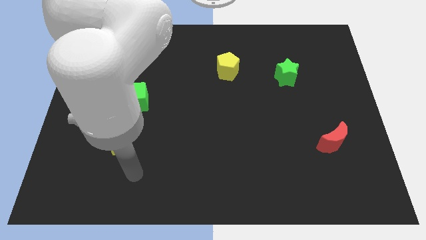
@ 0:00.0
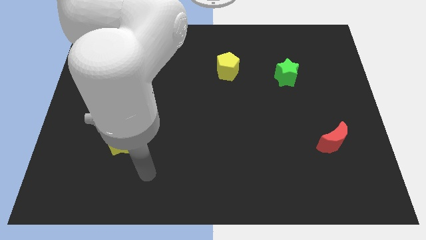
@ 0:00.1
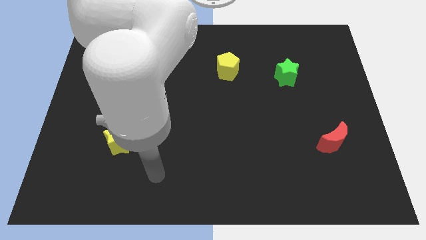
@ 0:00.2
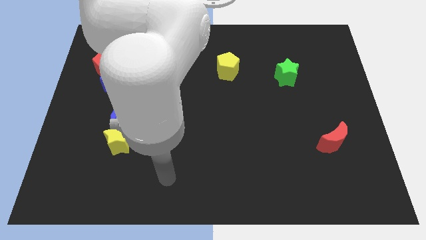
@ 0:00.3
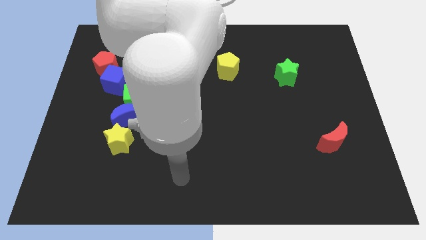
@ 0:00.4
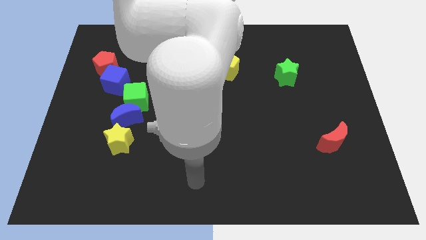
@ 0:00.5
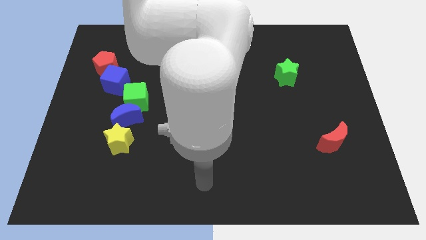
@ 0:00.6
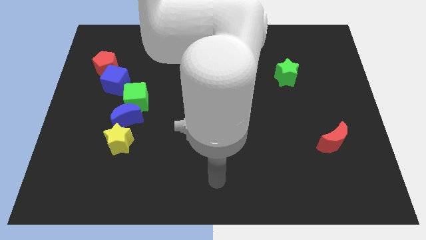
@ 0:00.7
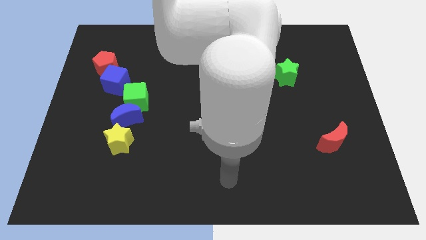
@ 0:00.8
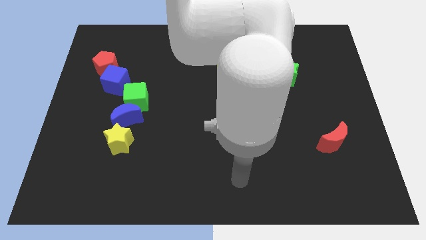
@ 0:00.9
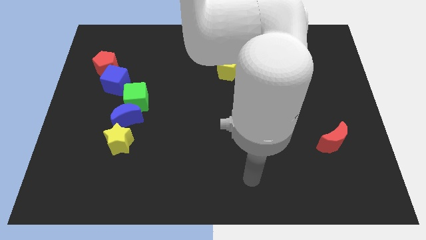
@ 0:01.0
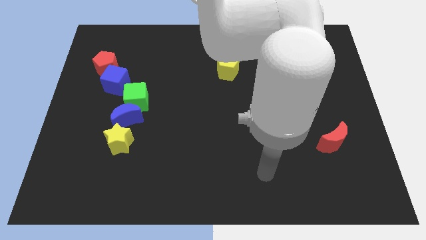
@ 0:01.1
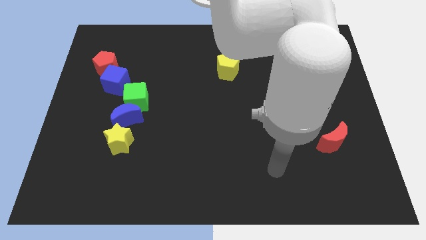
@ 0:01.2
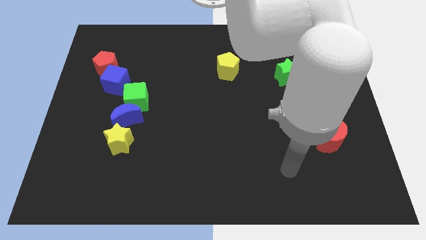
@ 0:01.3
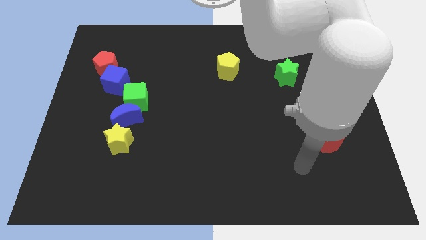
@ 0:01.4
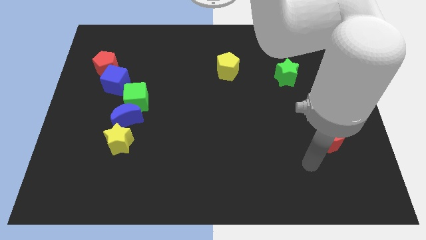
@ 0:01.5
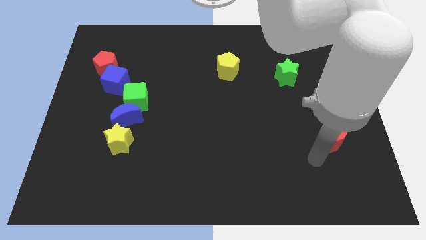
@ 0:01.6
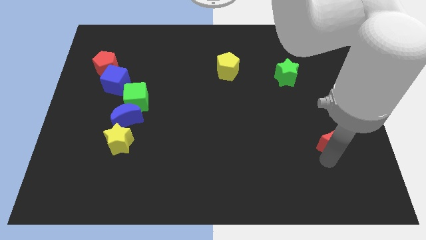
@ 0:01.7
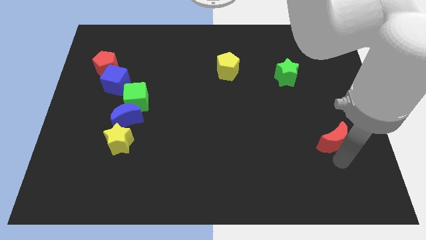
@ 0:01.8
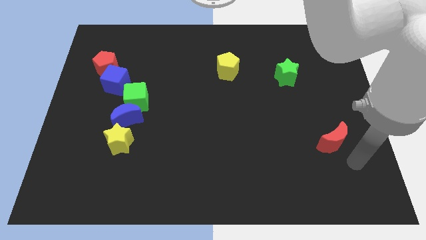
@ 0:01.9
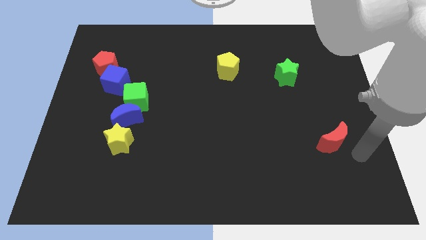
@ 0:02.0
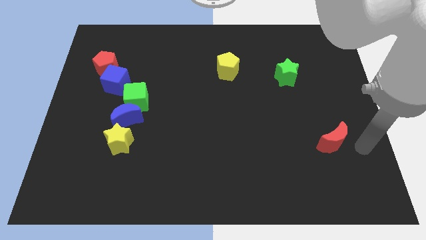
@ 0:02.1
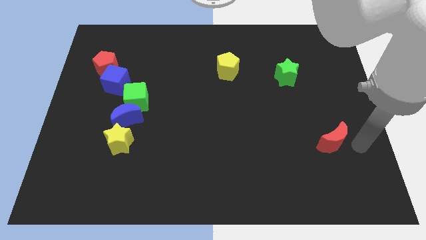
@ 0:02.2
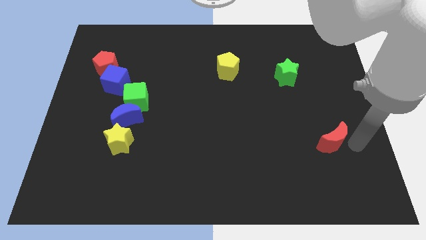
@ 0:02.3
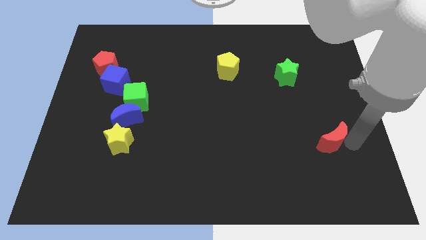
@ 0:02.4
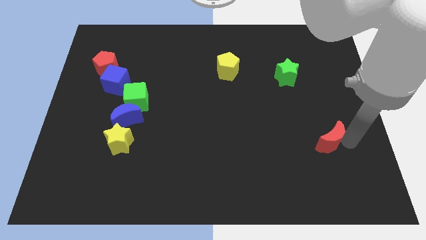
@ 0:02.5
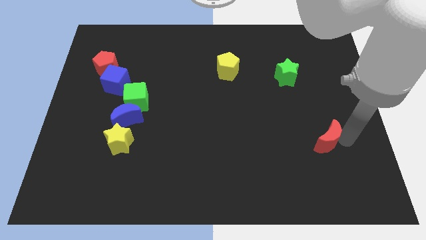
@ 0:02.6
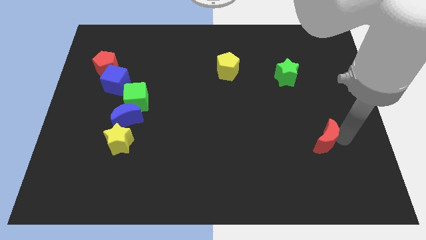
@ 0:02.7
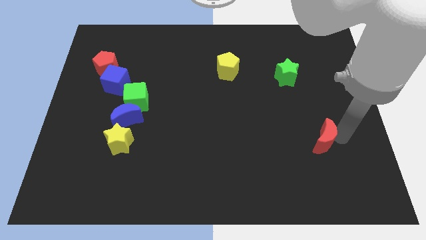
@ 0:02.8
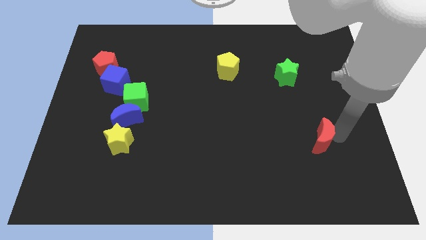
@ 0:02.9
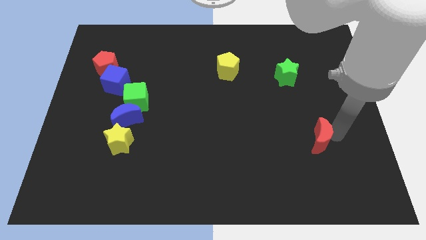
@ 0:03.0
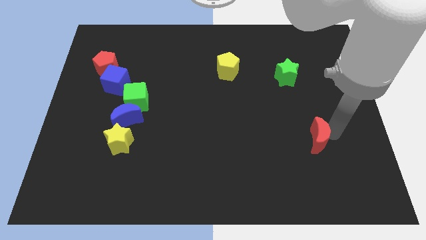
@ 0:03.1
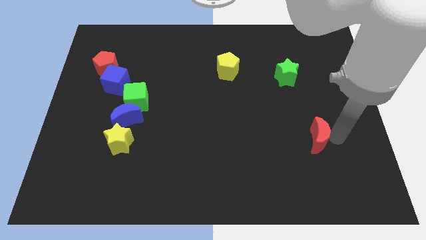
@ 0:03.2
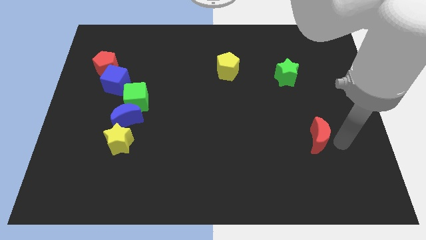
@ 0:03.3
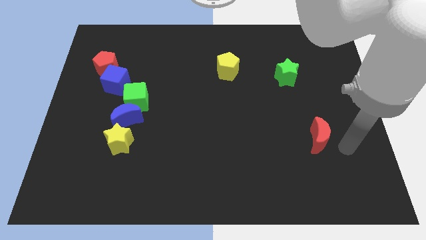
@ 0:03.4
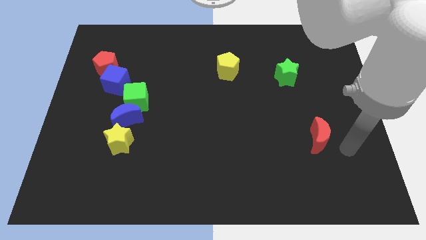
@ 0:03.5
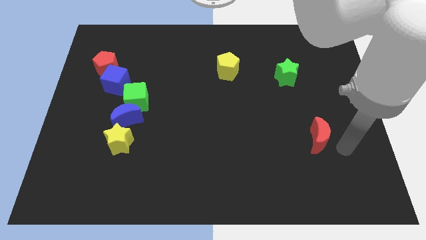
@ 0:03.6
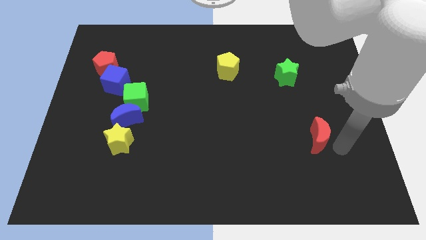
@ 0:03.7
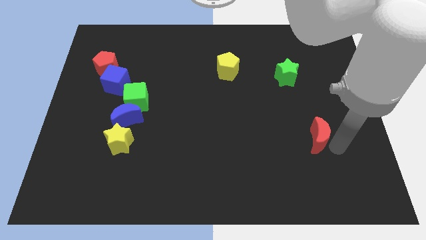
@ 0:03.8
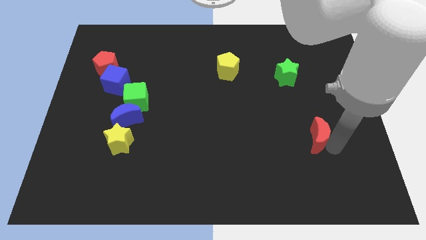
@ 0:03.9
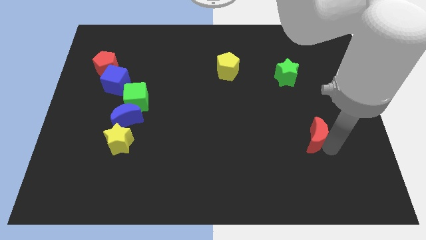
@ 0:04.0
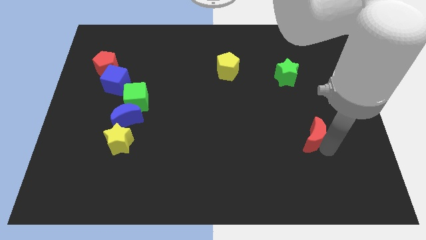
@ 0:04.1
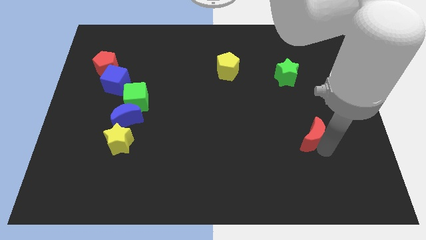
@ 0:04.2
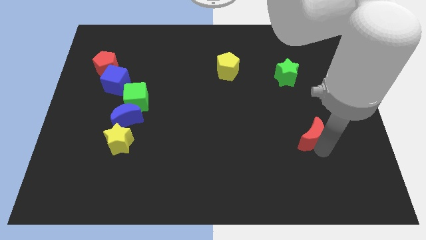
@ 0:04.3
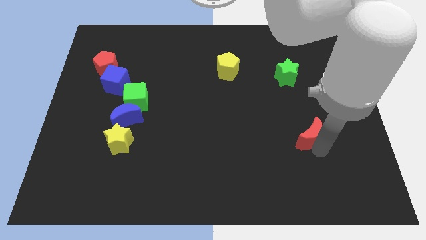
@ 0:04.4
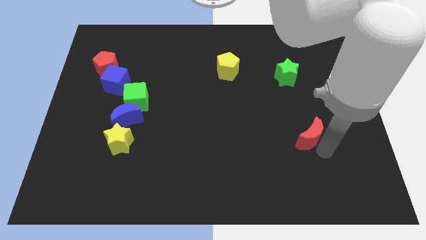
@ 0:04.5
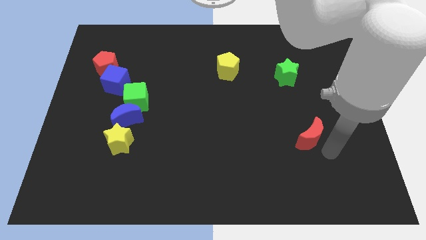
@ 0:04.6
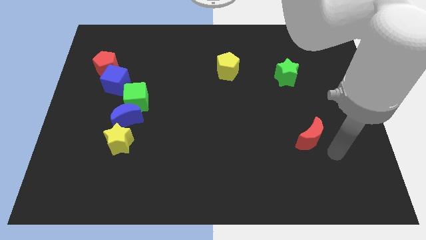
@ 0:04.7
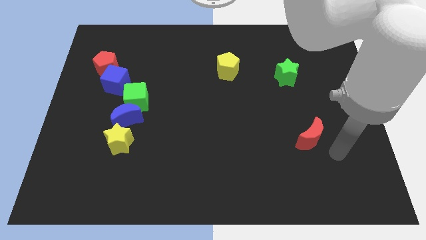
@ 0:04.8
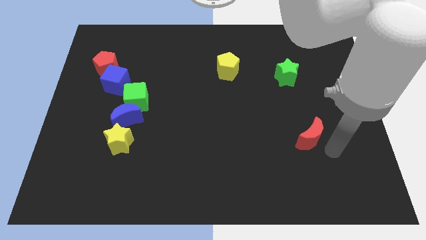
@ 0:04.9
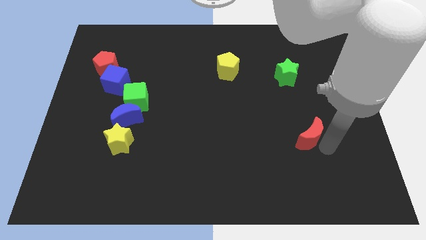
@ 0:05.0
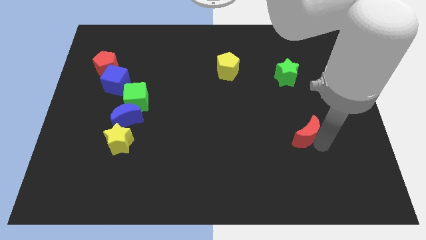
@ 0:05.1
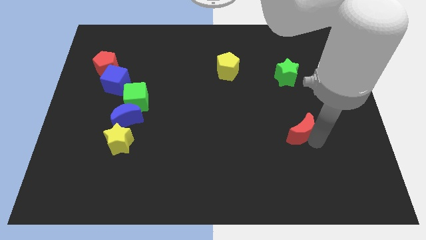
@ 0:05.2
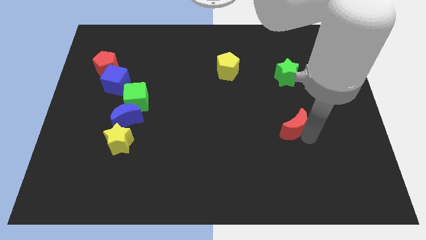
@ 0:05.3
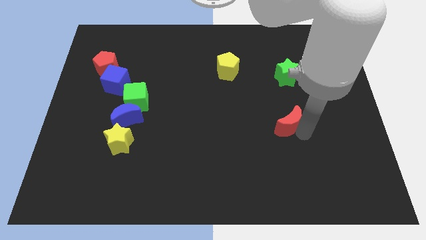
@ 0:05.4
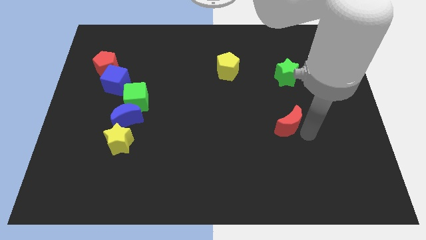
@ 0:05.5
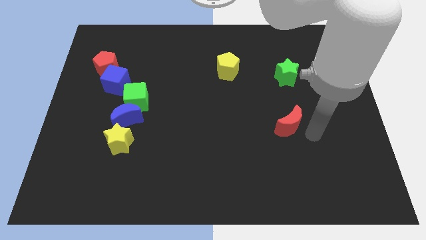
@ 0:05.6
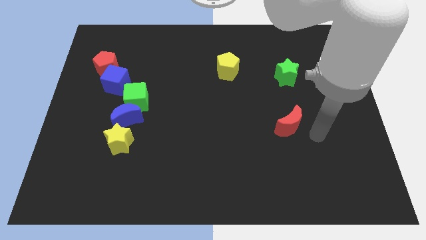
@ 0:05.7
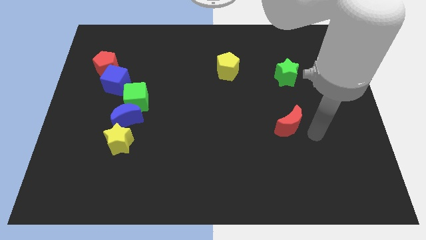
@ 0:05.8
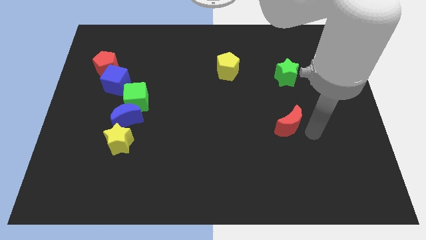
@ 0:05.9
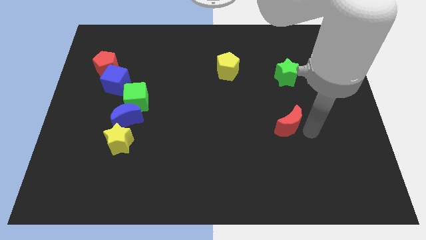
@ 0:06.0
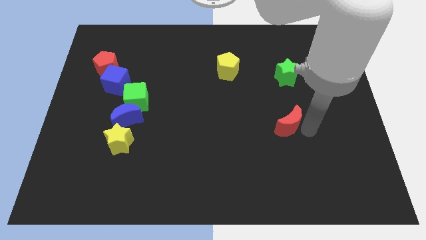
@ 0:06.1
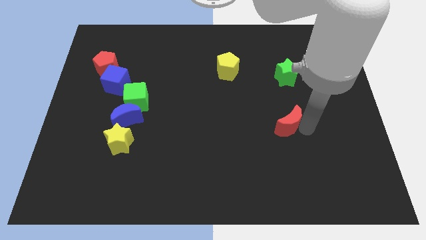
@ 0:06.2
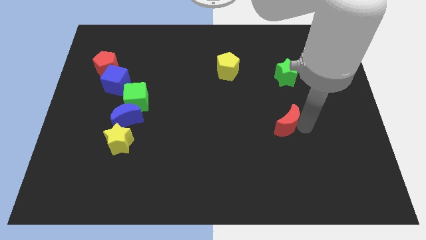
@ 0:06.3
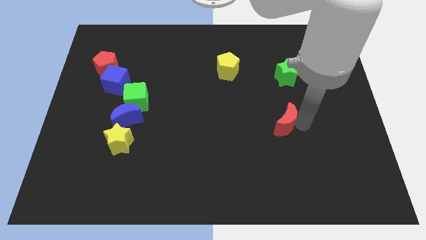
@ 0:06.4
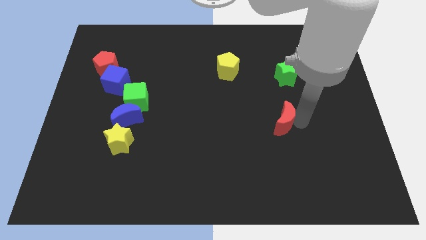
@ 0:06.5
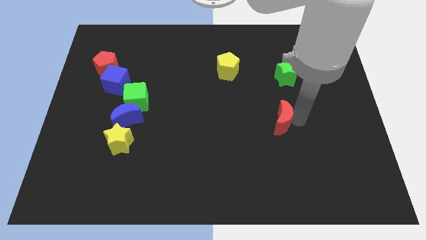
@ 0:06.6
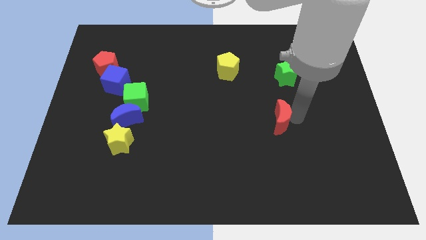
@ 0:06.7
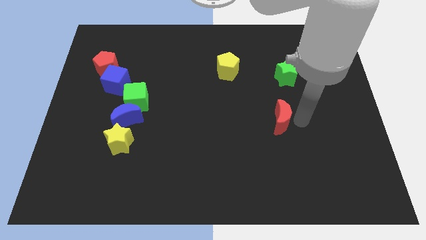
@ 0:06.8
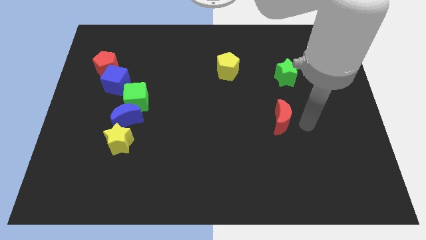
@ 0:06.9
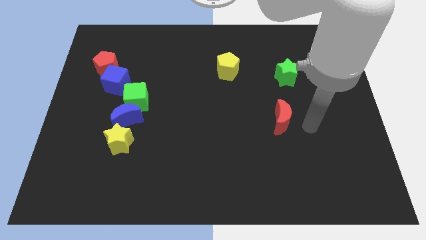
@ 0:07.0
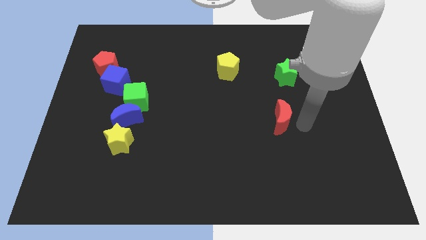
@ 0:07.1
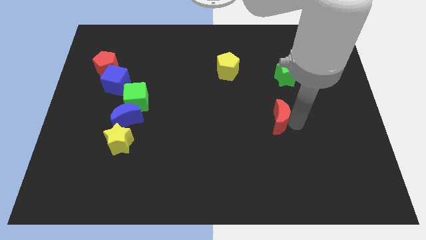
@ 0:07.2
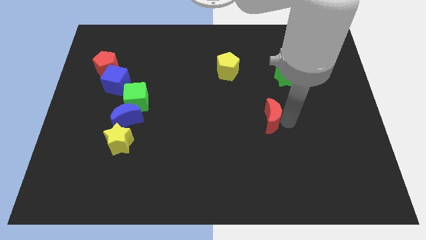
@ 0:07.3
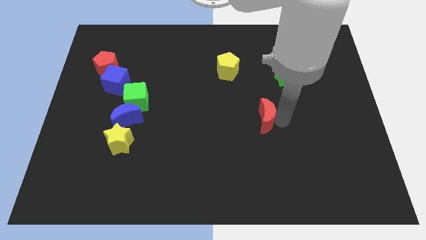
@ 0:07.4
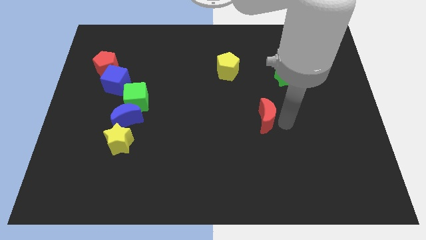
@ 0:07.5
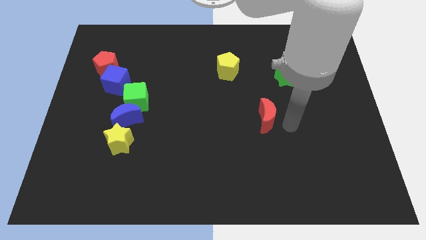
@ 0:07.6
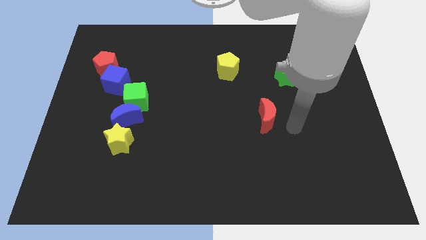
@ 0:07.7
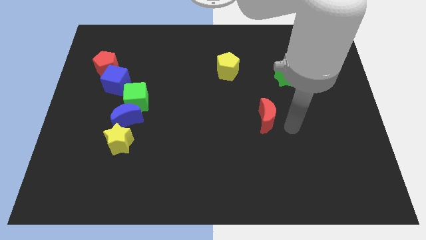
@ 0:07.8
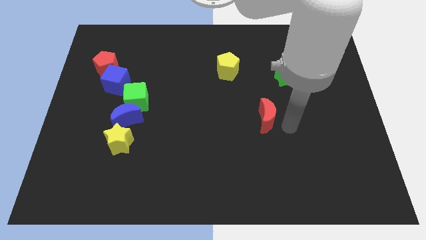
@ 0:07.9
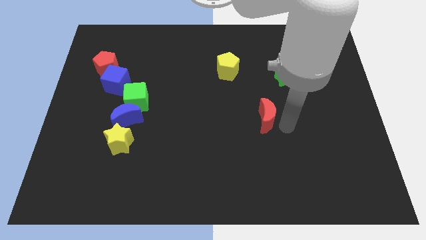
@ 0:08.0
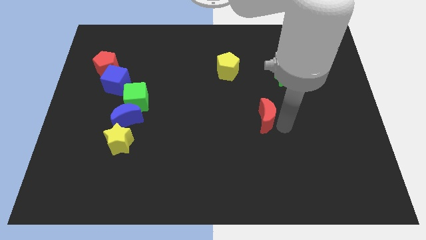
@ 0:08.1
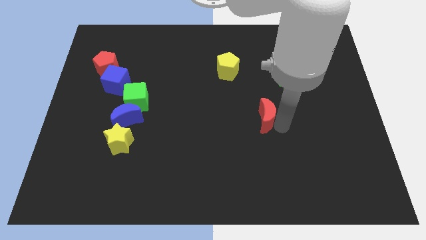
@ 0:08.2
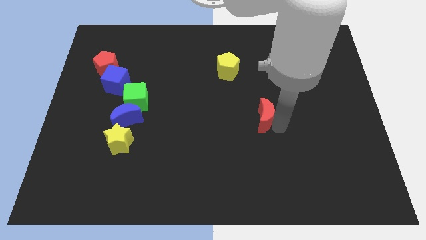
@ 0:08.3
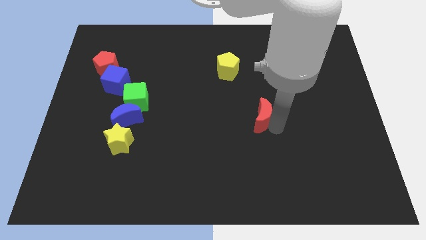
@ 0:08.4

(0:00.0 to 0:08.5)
push the red moon to the middle
